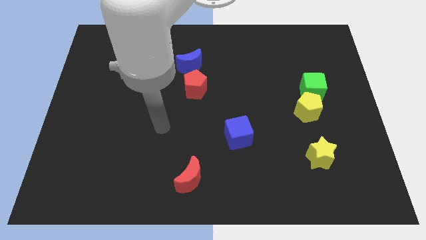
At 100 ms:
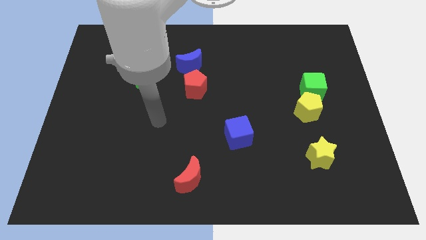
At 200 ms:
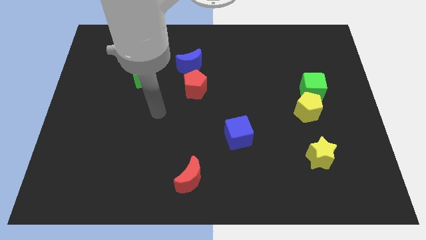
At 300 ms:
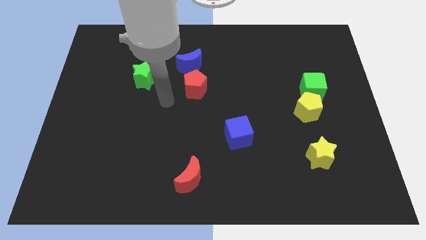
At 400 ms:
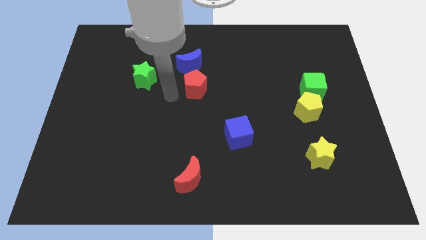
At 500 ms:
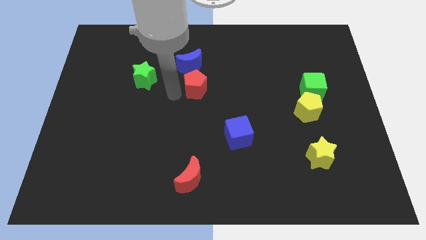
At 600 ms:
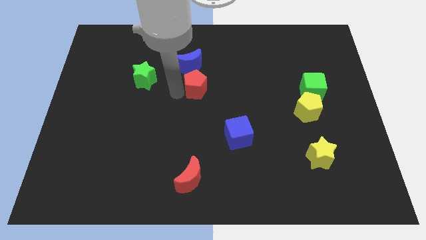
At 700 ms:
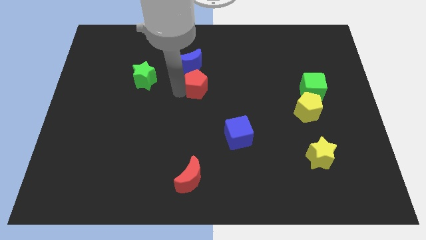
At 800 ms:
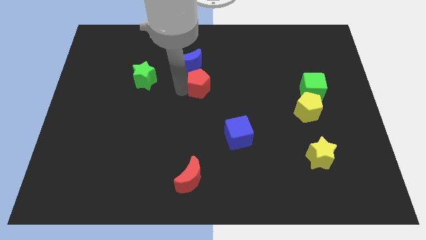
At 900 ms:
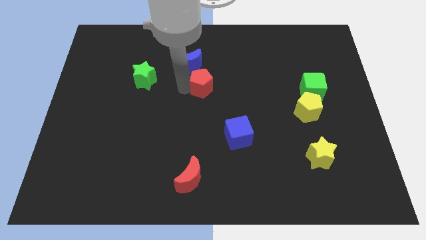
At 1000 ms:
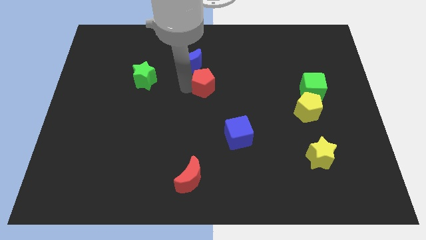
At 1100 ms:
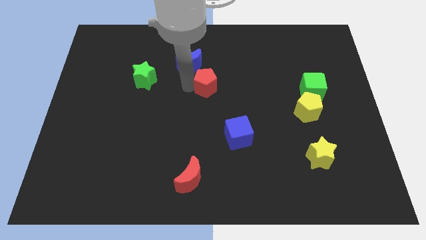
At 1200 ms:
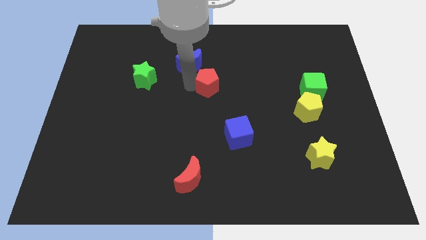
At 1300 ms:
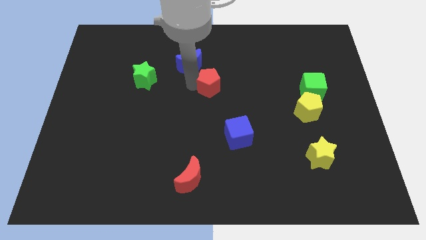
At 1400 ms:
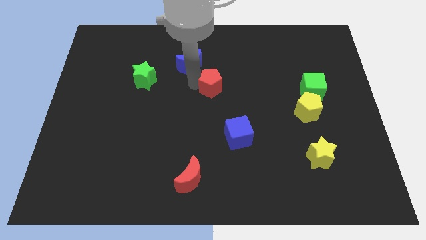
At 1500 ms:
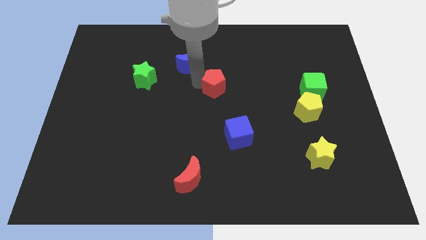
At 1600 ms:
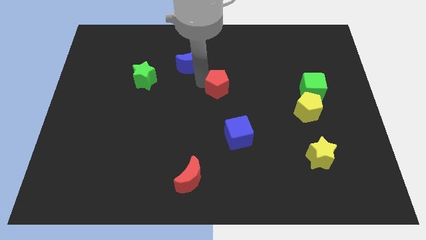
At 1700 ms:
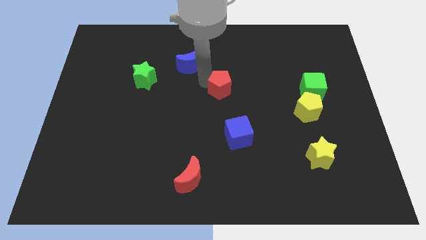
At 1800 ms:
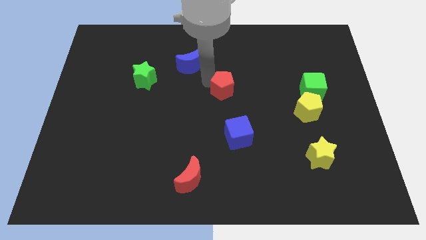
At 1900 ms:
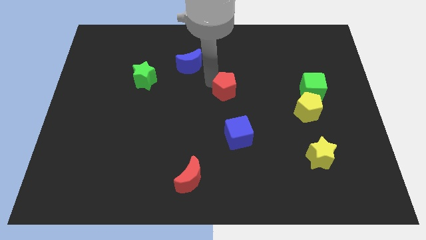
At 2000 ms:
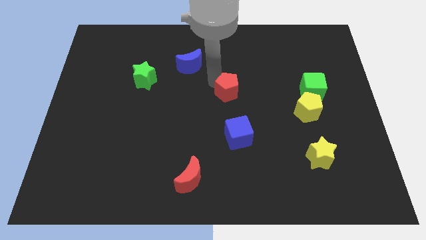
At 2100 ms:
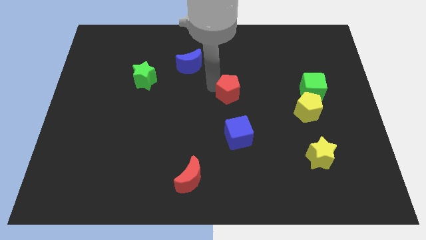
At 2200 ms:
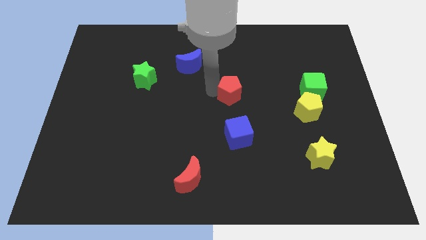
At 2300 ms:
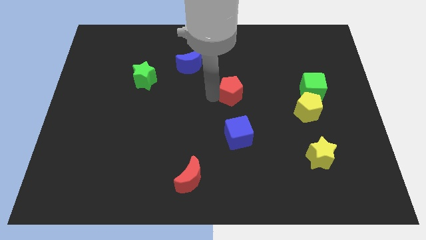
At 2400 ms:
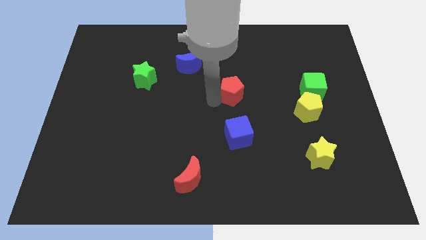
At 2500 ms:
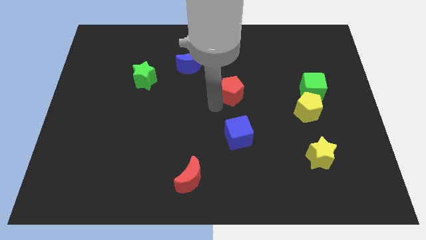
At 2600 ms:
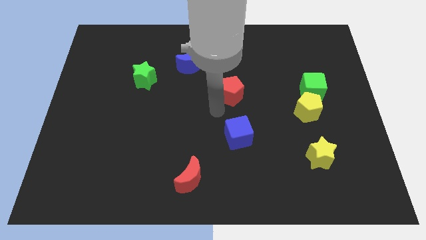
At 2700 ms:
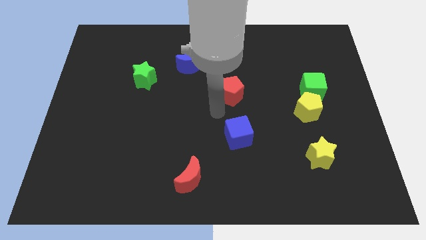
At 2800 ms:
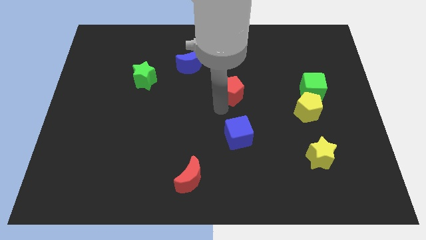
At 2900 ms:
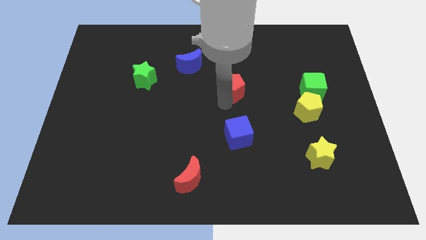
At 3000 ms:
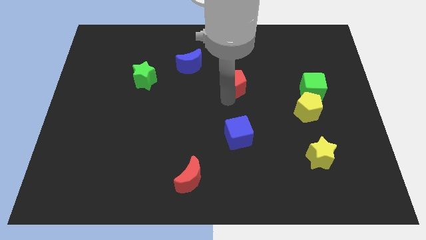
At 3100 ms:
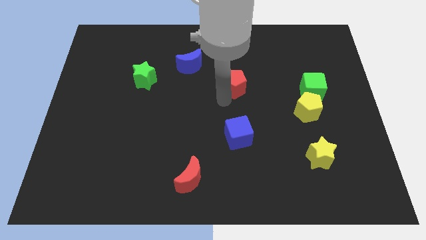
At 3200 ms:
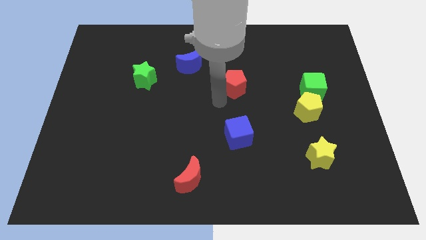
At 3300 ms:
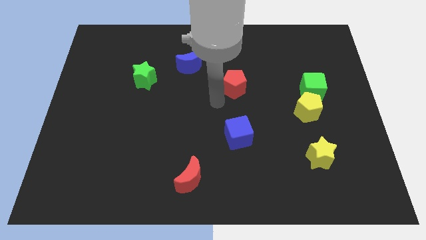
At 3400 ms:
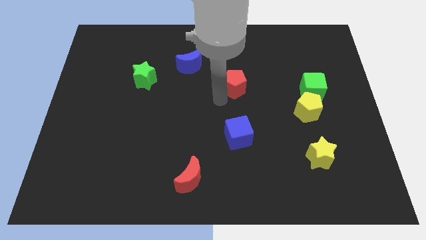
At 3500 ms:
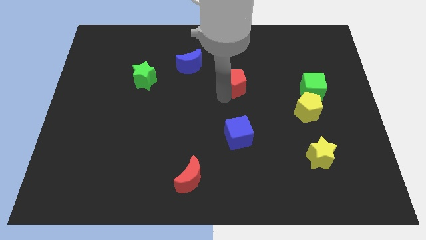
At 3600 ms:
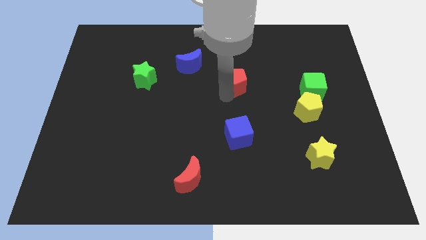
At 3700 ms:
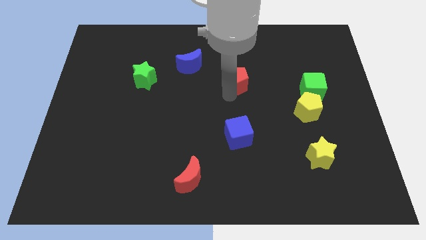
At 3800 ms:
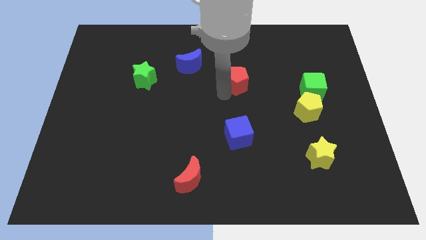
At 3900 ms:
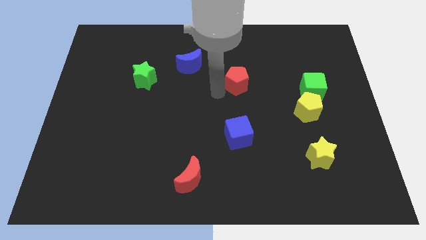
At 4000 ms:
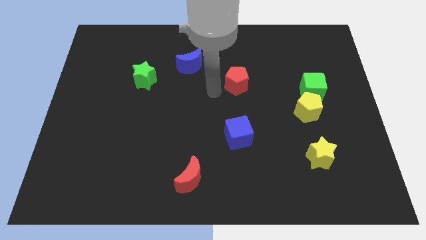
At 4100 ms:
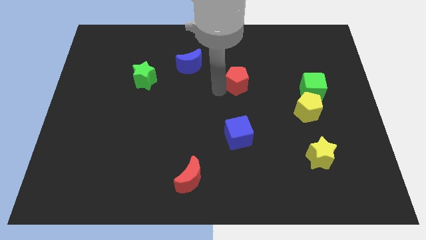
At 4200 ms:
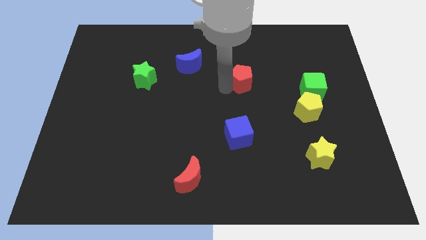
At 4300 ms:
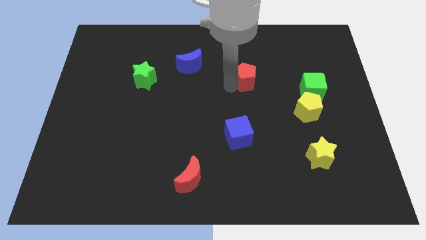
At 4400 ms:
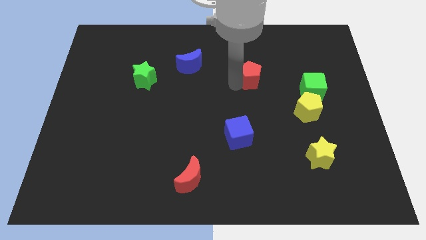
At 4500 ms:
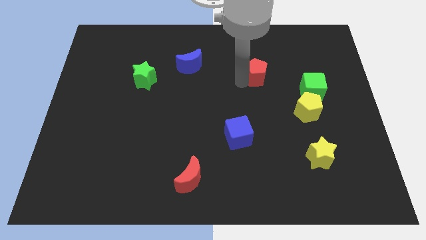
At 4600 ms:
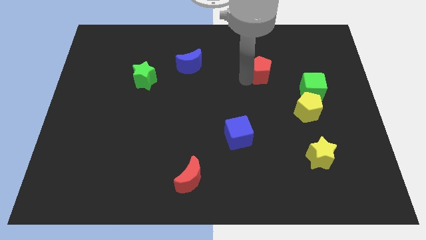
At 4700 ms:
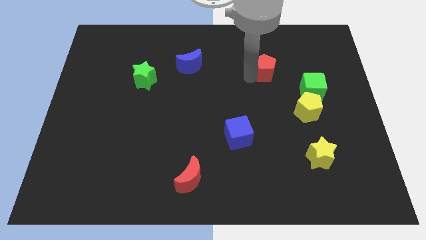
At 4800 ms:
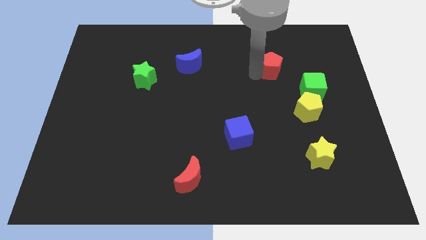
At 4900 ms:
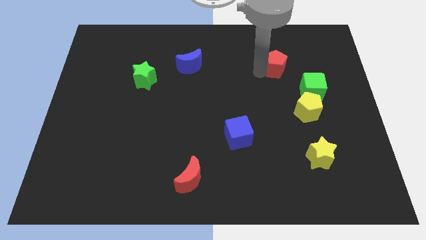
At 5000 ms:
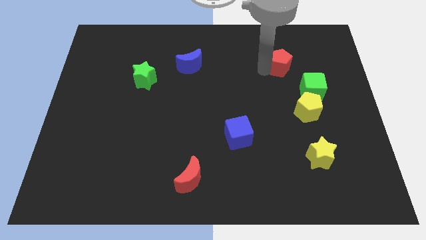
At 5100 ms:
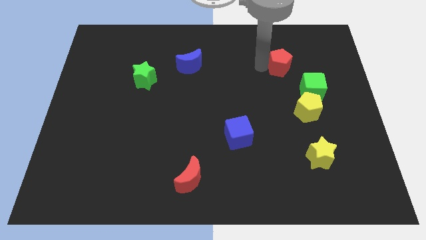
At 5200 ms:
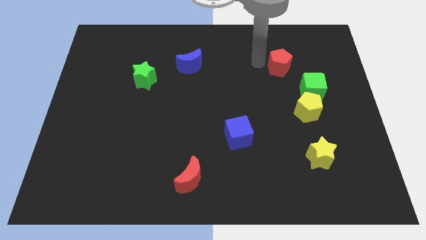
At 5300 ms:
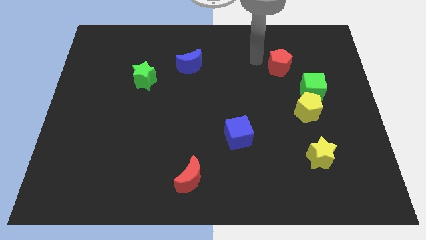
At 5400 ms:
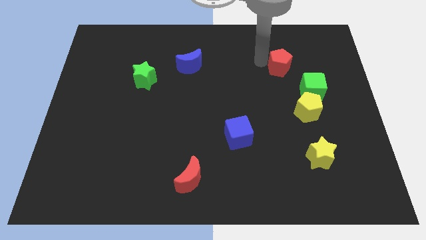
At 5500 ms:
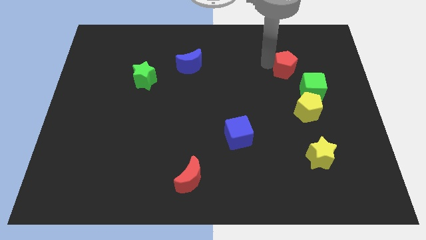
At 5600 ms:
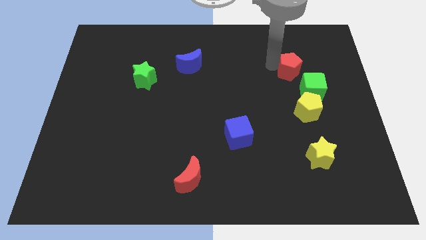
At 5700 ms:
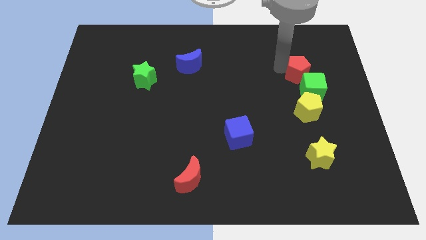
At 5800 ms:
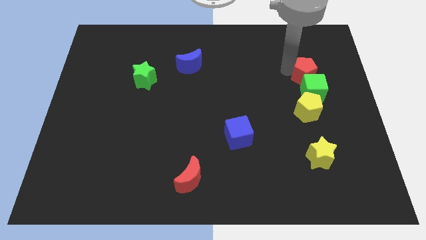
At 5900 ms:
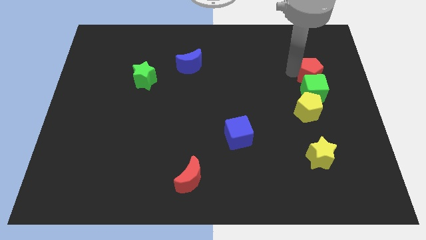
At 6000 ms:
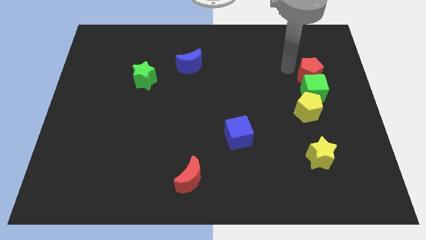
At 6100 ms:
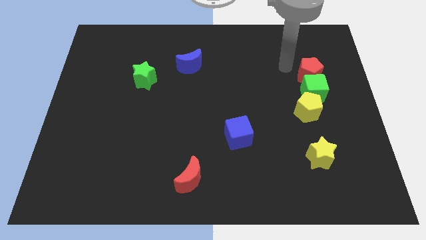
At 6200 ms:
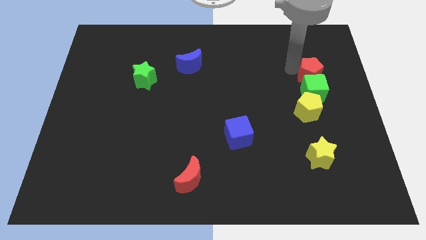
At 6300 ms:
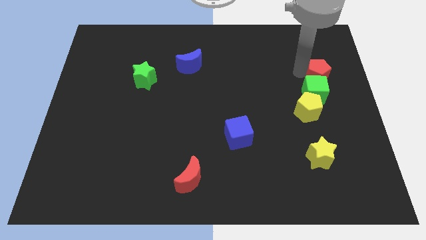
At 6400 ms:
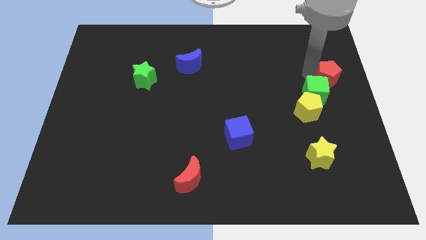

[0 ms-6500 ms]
put the red pentagon to the right side of the board
